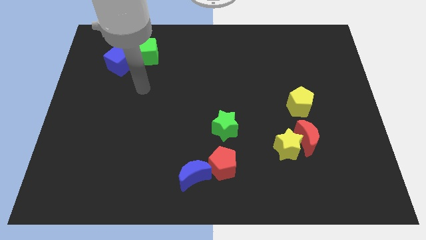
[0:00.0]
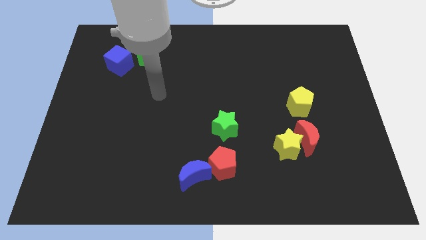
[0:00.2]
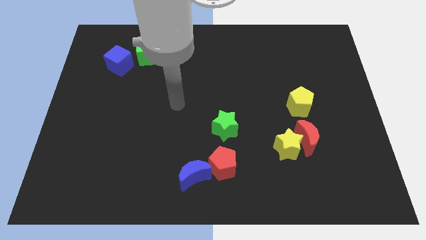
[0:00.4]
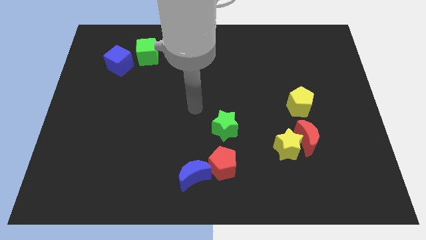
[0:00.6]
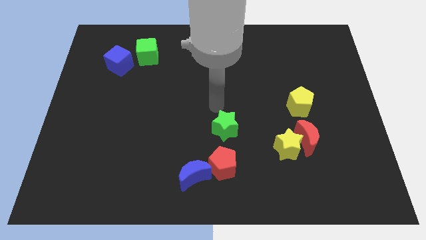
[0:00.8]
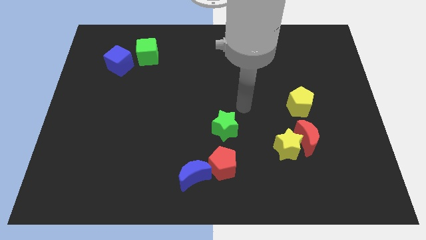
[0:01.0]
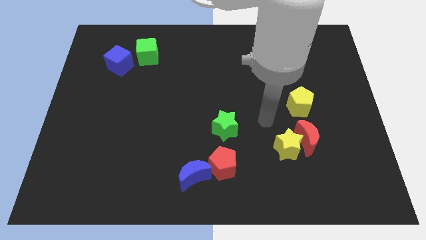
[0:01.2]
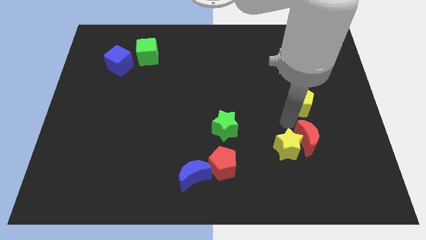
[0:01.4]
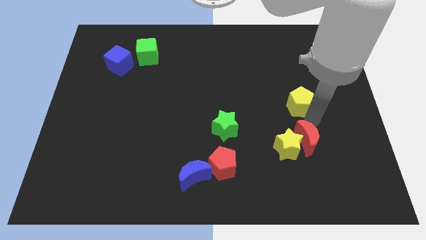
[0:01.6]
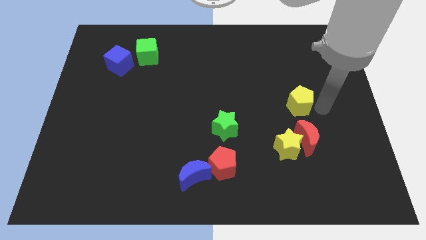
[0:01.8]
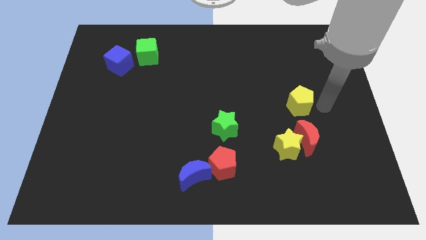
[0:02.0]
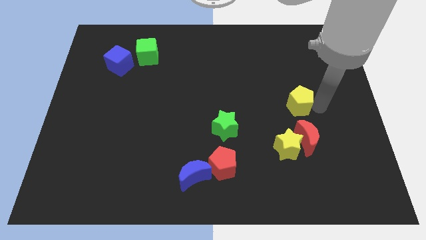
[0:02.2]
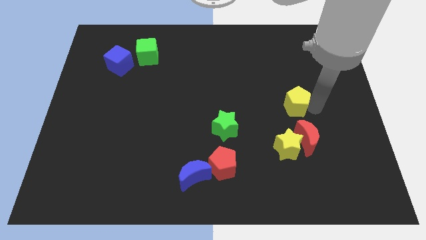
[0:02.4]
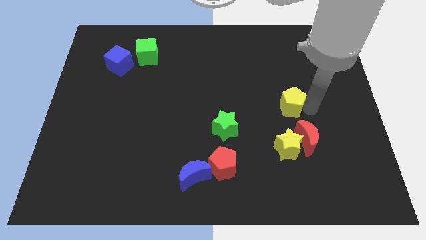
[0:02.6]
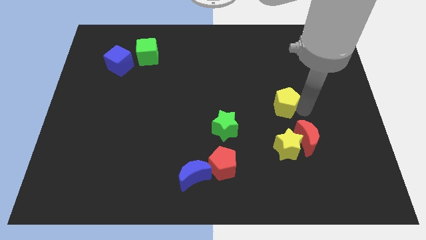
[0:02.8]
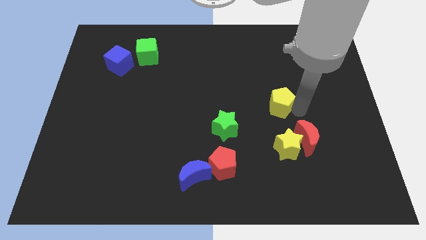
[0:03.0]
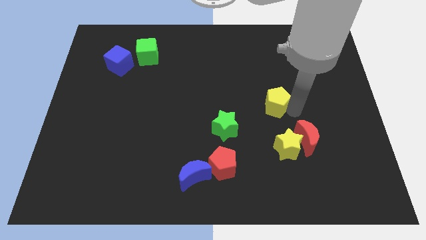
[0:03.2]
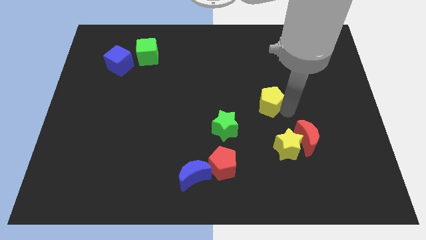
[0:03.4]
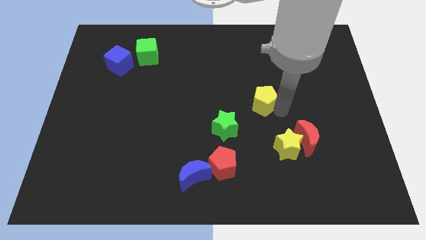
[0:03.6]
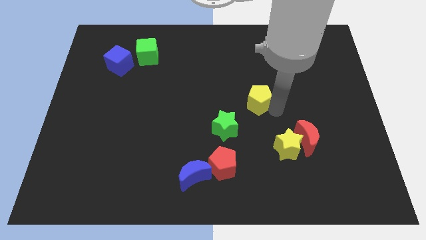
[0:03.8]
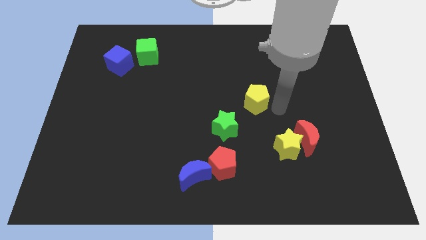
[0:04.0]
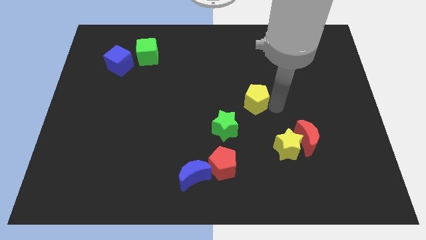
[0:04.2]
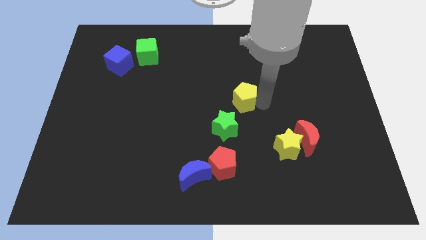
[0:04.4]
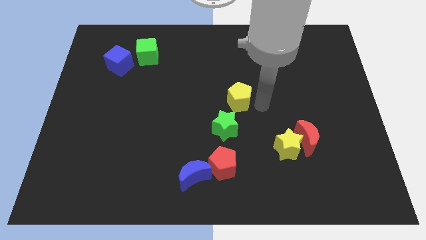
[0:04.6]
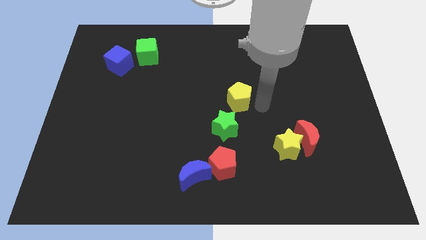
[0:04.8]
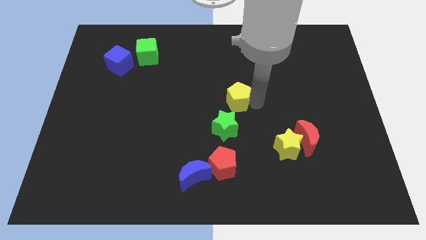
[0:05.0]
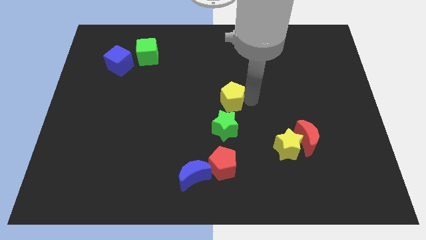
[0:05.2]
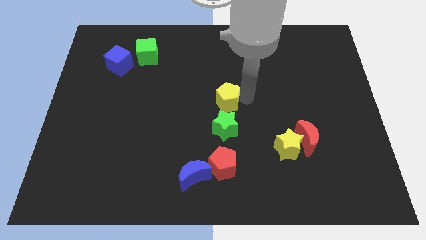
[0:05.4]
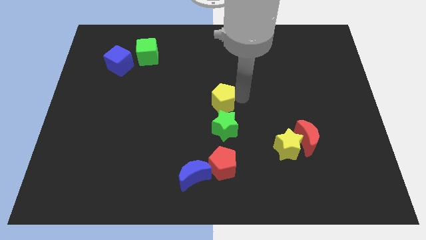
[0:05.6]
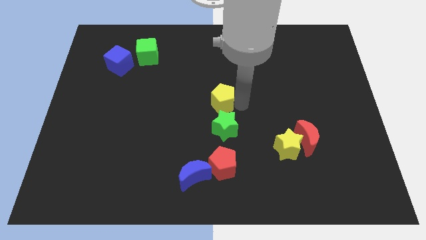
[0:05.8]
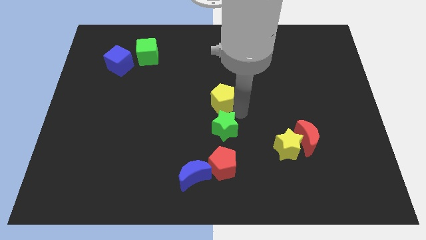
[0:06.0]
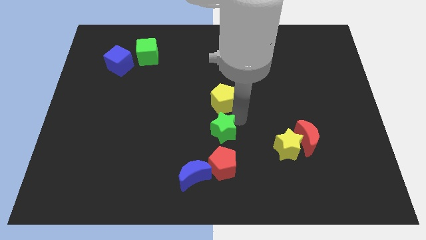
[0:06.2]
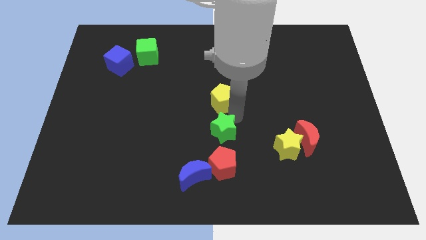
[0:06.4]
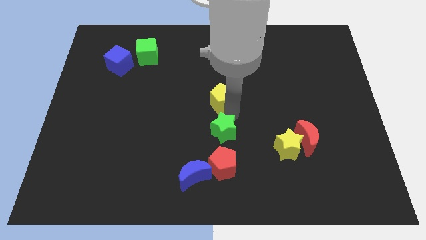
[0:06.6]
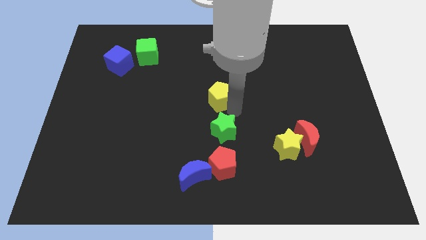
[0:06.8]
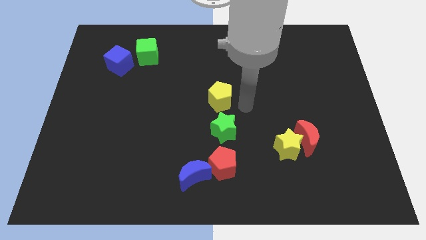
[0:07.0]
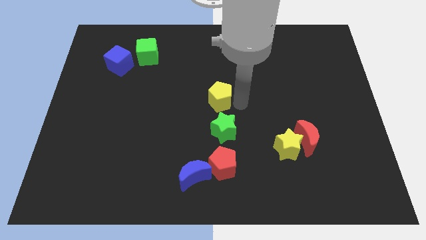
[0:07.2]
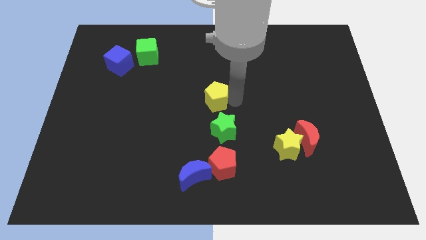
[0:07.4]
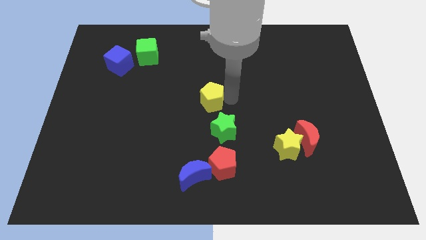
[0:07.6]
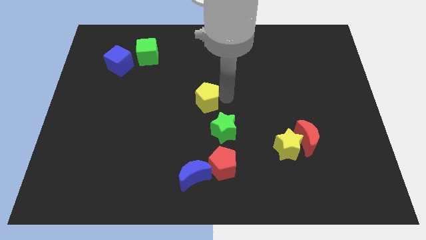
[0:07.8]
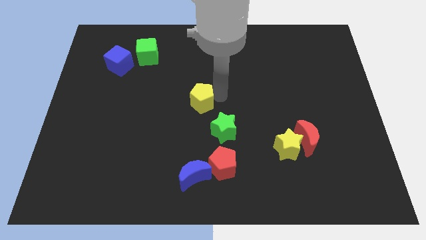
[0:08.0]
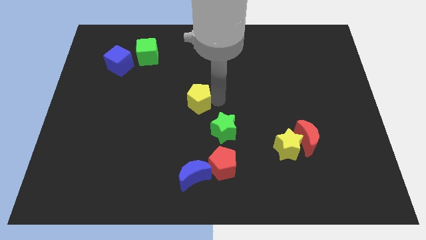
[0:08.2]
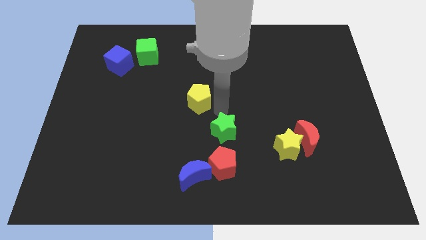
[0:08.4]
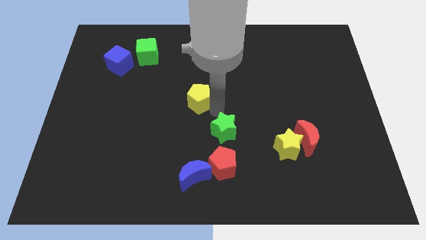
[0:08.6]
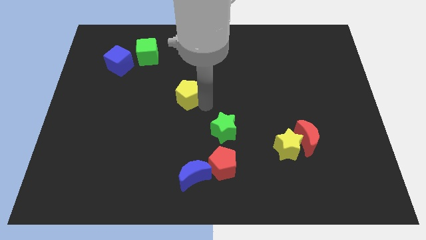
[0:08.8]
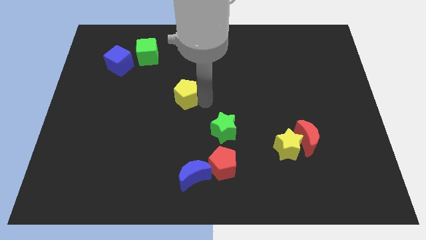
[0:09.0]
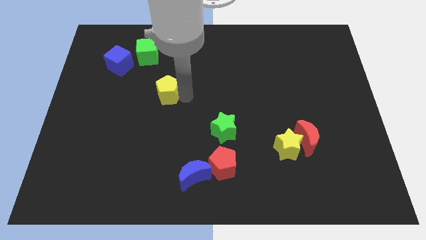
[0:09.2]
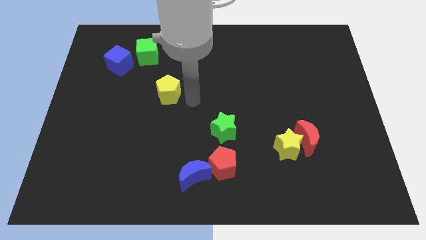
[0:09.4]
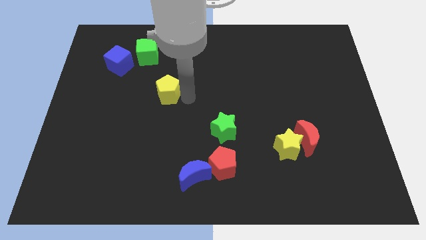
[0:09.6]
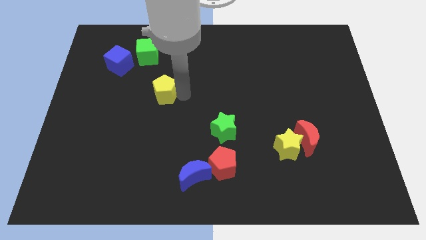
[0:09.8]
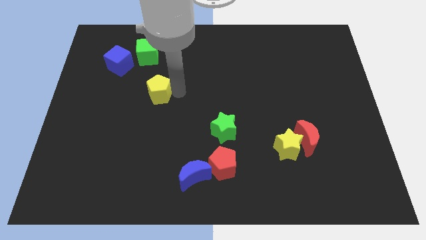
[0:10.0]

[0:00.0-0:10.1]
push the yellow pentagon to the bottom of the green cube

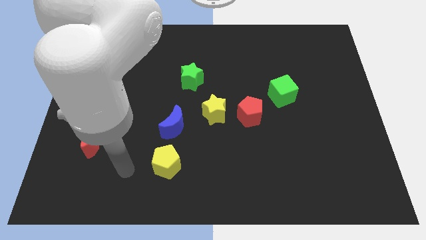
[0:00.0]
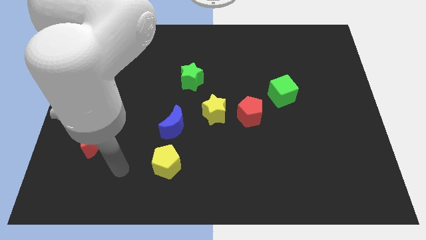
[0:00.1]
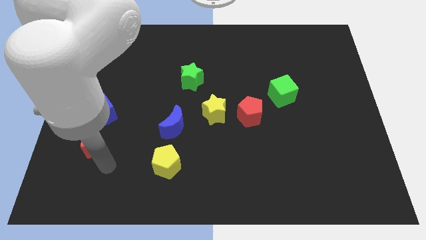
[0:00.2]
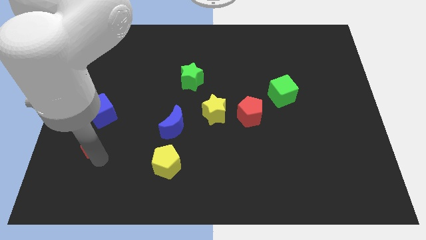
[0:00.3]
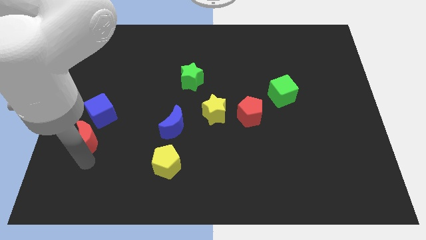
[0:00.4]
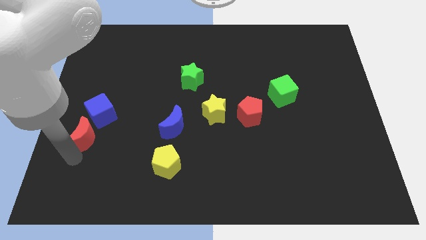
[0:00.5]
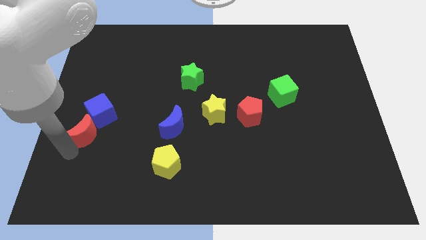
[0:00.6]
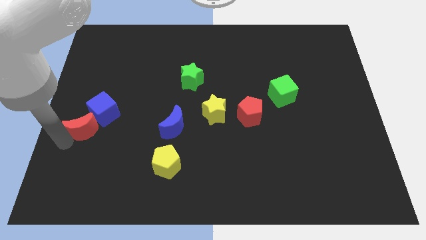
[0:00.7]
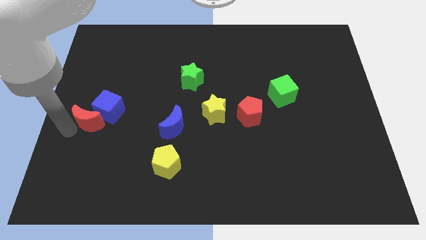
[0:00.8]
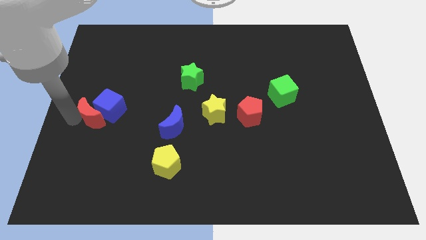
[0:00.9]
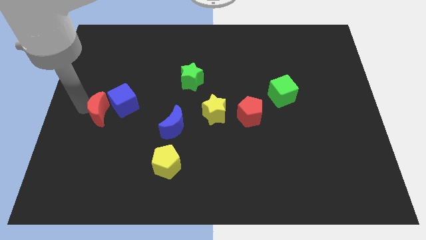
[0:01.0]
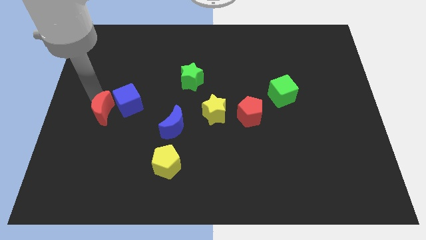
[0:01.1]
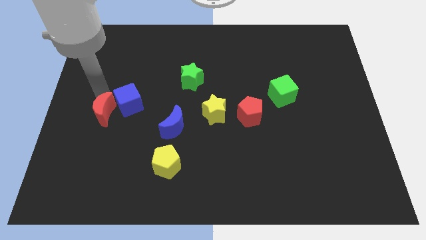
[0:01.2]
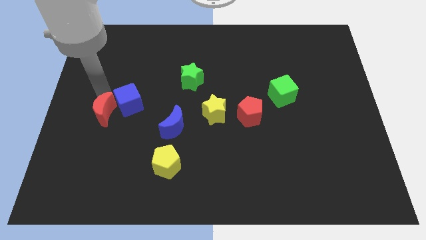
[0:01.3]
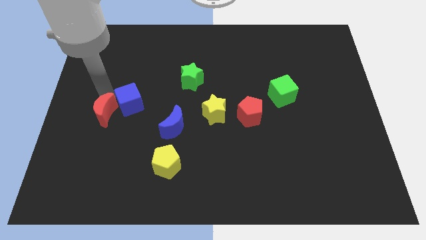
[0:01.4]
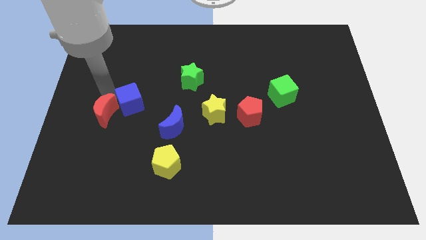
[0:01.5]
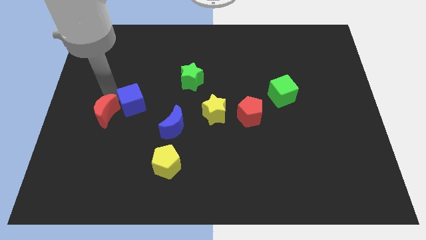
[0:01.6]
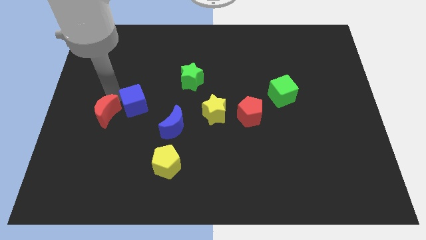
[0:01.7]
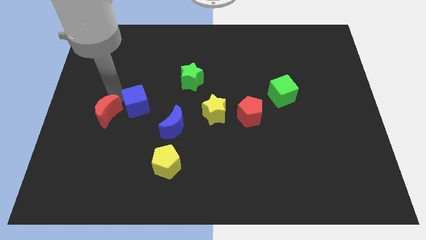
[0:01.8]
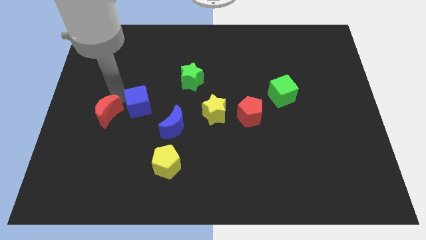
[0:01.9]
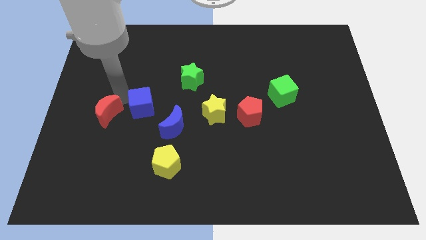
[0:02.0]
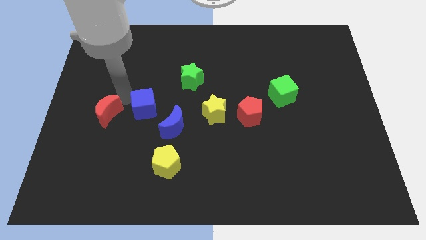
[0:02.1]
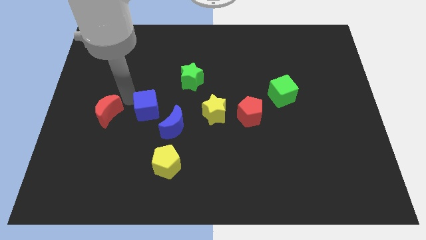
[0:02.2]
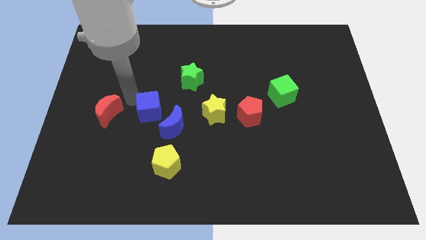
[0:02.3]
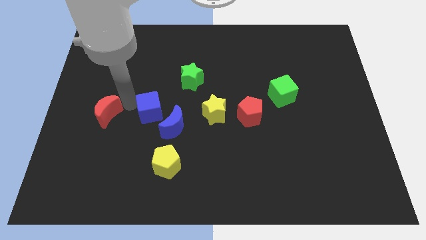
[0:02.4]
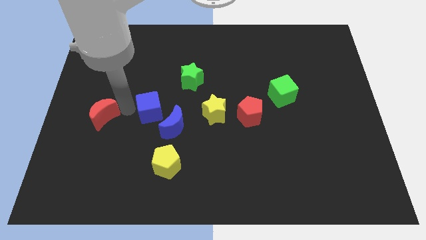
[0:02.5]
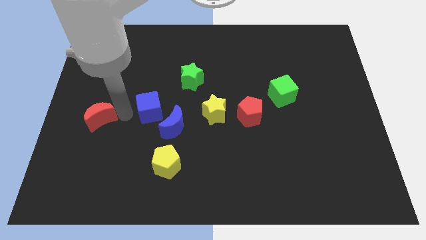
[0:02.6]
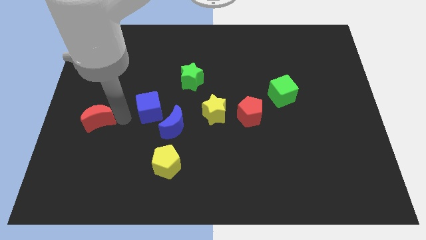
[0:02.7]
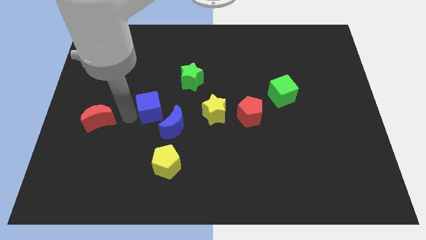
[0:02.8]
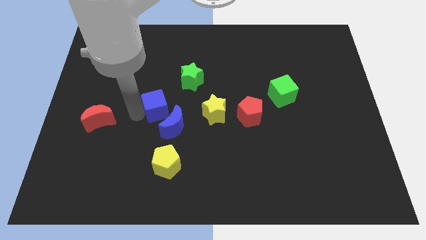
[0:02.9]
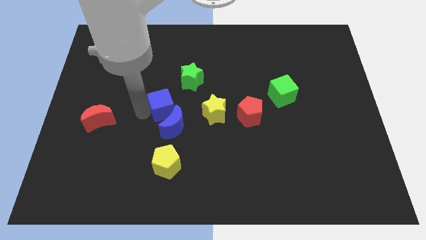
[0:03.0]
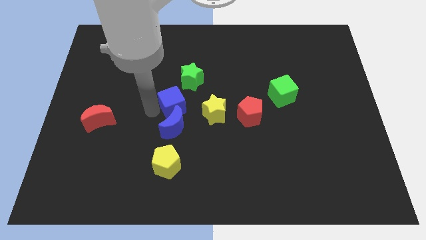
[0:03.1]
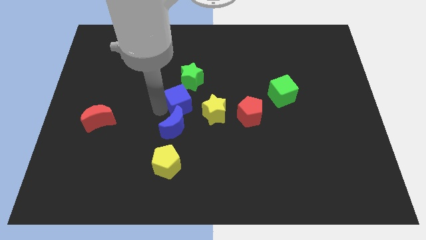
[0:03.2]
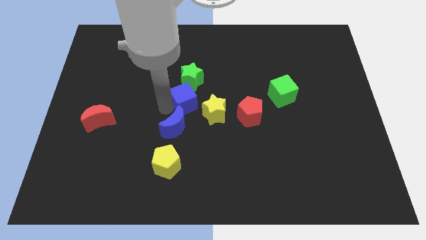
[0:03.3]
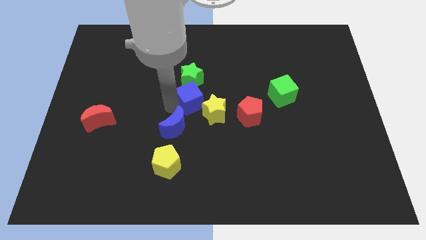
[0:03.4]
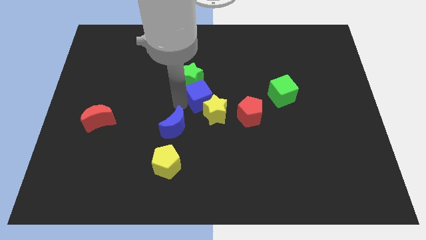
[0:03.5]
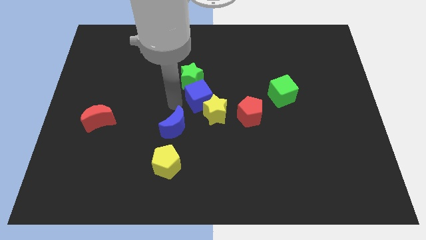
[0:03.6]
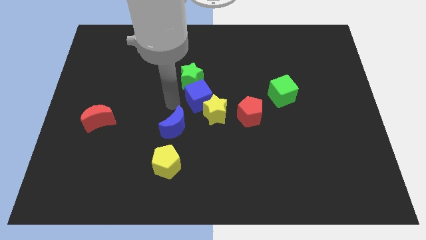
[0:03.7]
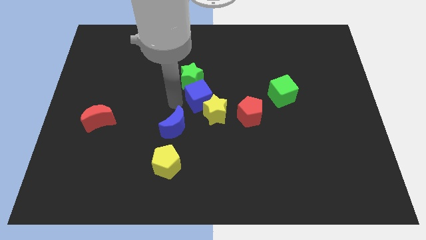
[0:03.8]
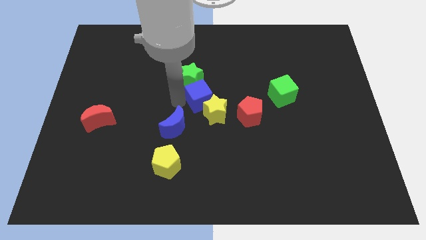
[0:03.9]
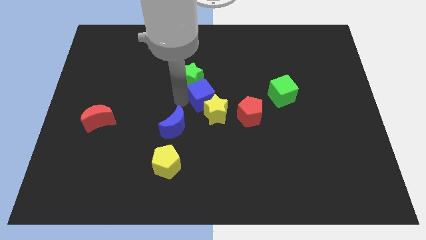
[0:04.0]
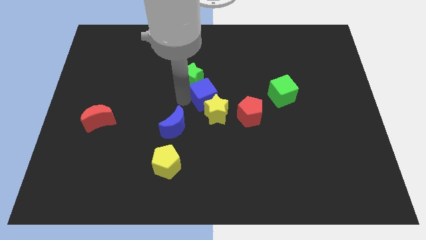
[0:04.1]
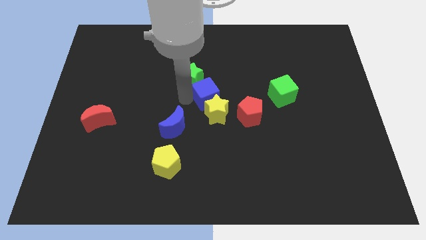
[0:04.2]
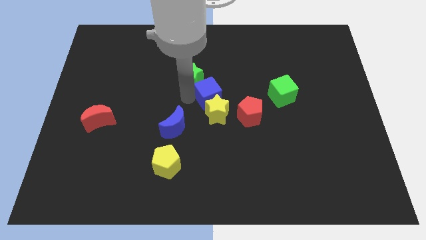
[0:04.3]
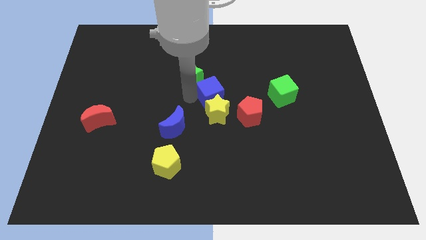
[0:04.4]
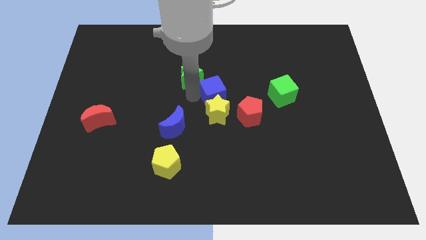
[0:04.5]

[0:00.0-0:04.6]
put the blue cube diagonally up and to the right of the yellow star
